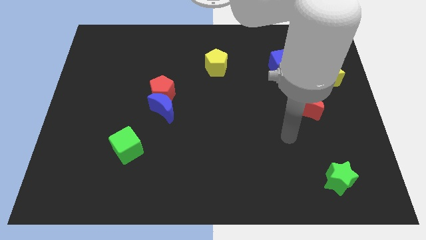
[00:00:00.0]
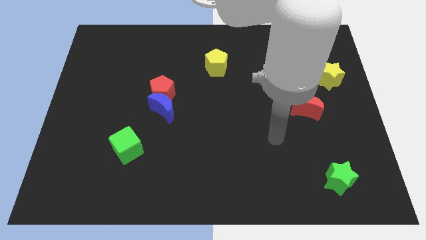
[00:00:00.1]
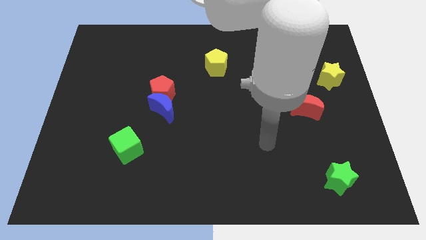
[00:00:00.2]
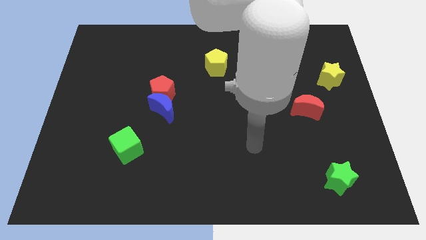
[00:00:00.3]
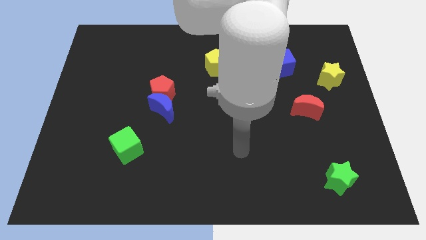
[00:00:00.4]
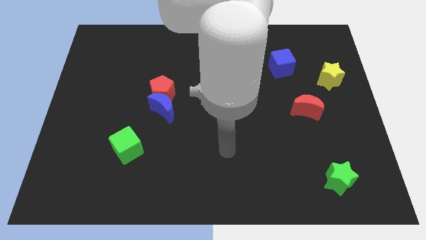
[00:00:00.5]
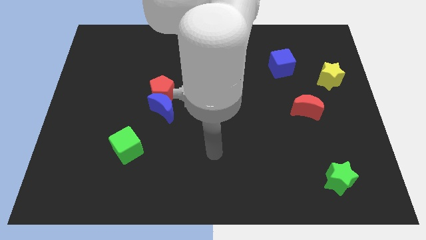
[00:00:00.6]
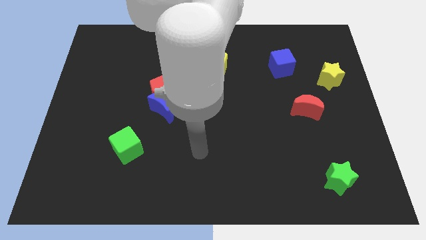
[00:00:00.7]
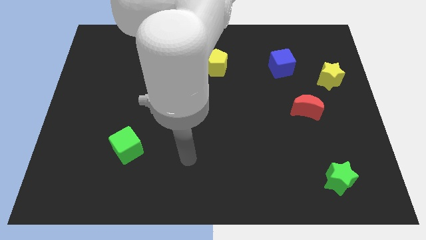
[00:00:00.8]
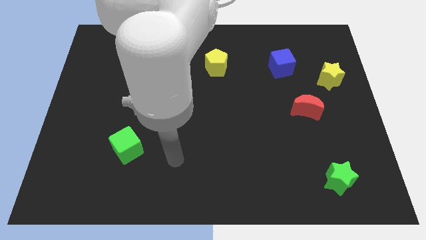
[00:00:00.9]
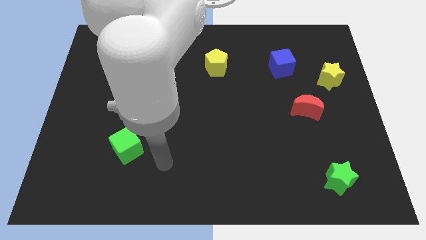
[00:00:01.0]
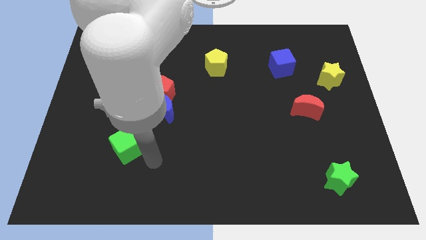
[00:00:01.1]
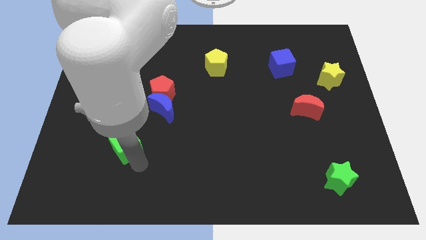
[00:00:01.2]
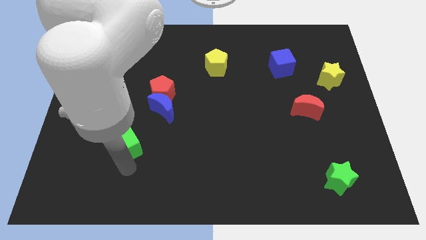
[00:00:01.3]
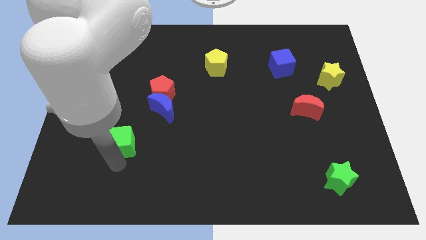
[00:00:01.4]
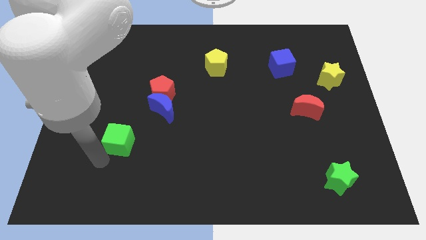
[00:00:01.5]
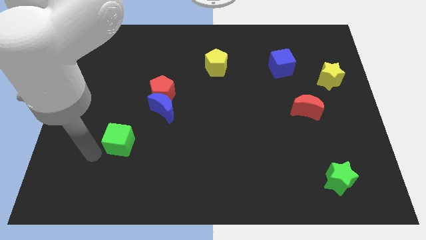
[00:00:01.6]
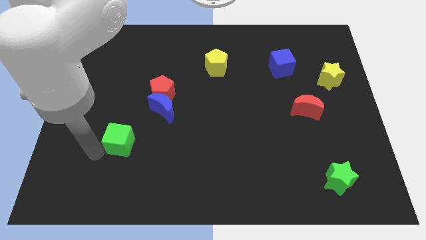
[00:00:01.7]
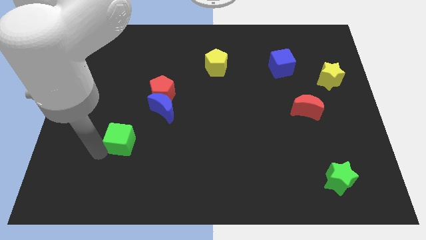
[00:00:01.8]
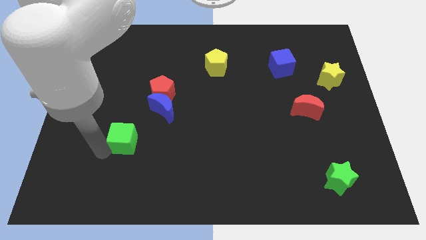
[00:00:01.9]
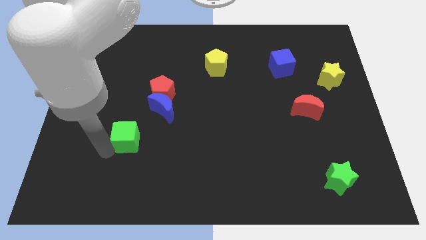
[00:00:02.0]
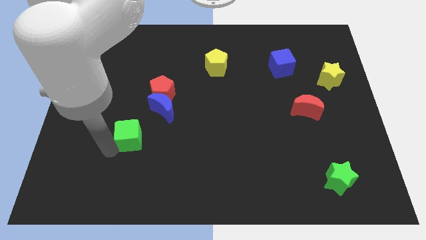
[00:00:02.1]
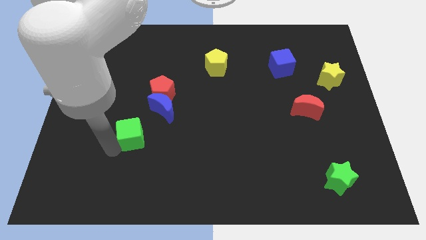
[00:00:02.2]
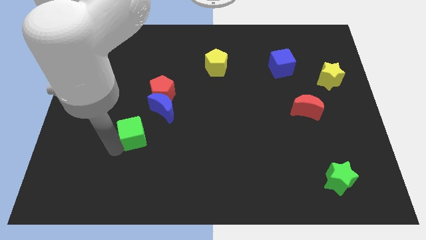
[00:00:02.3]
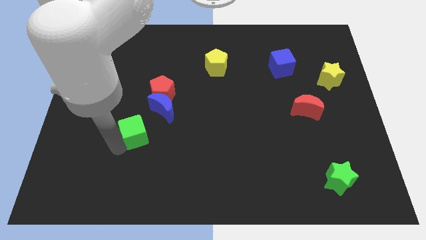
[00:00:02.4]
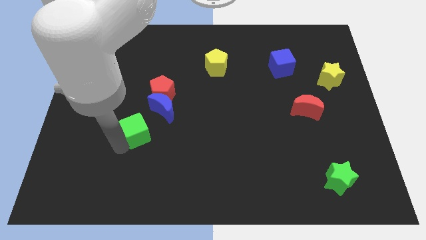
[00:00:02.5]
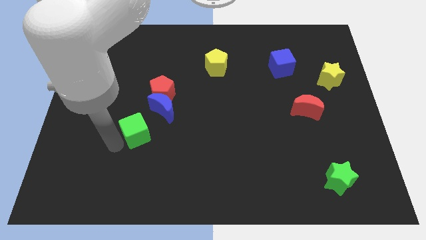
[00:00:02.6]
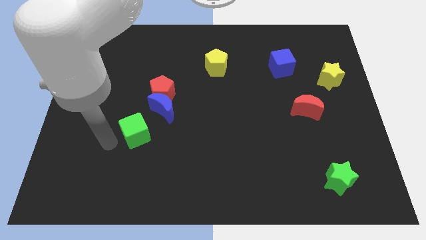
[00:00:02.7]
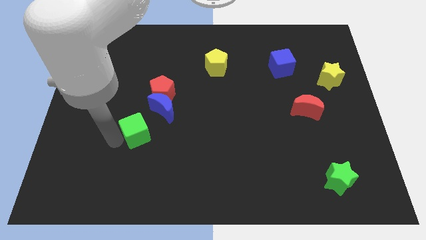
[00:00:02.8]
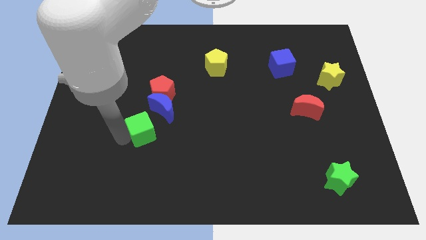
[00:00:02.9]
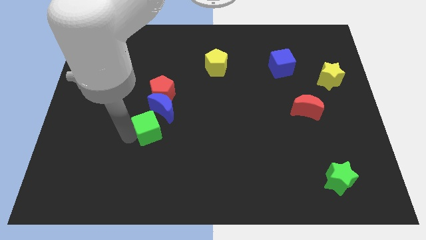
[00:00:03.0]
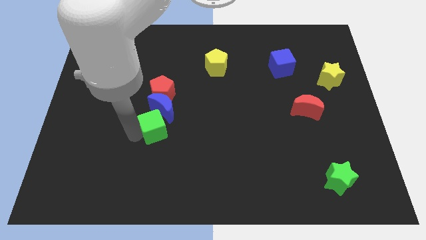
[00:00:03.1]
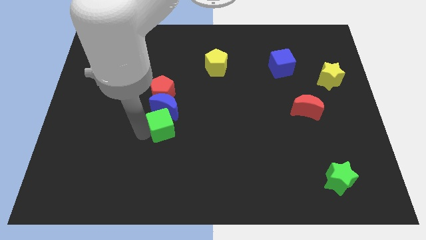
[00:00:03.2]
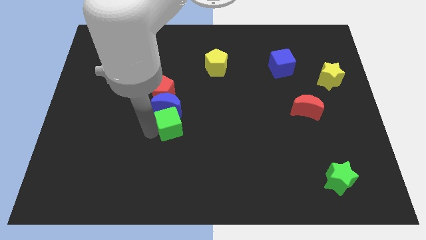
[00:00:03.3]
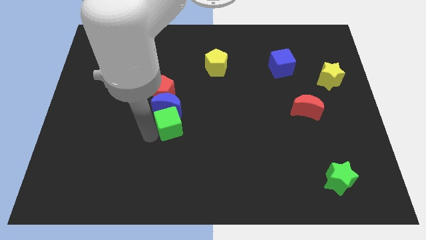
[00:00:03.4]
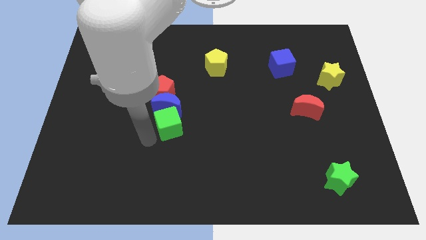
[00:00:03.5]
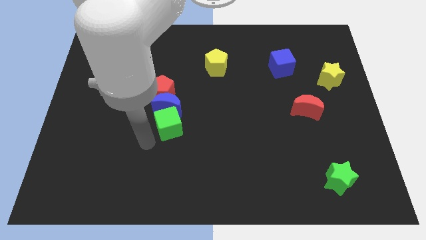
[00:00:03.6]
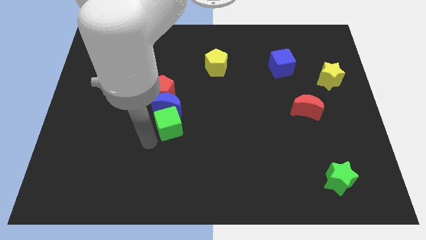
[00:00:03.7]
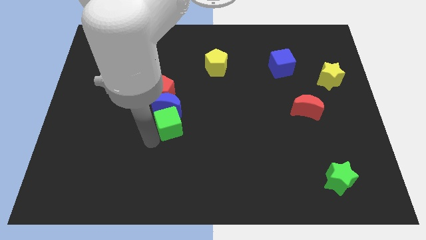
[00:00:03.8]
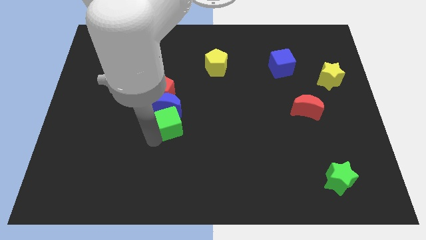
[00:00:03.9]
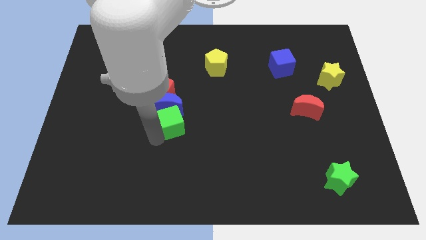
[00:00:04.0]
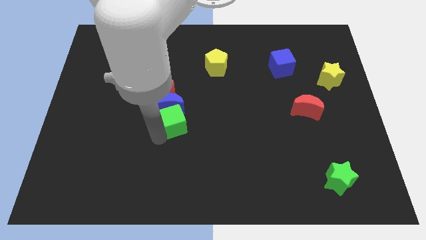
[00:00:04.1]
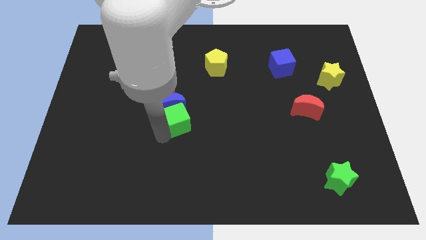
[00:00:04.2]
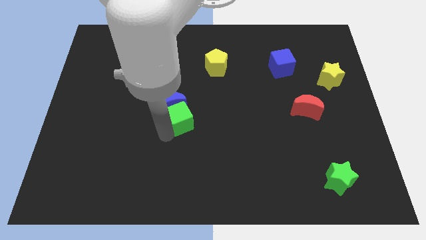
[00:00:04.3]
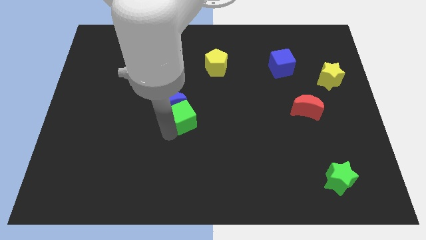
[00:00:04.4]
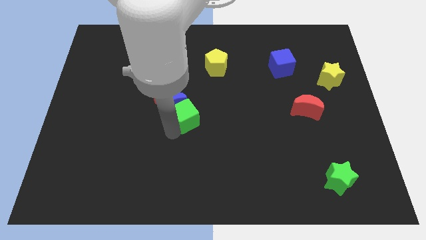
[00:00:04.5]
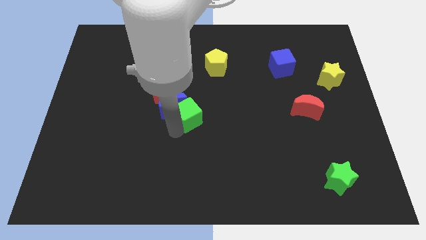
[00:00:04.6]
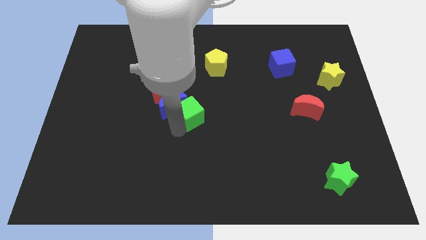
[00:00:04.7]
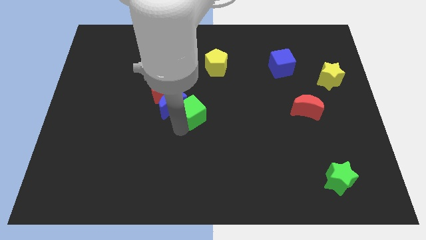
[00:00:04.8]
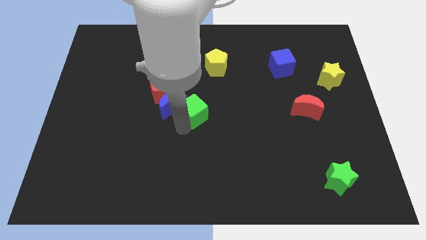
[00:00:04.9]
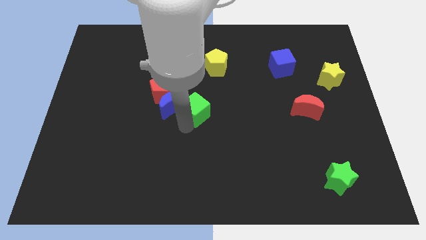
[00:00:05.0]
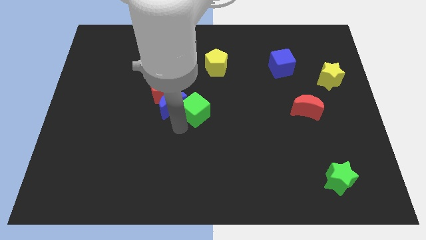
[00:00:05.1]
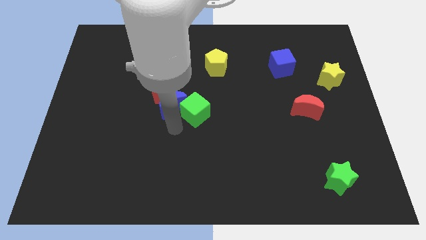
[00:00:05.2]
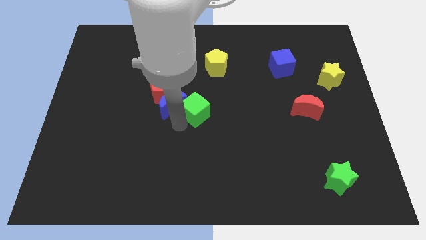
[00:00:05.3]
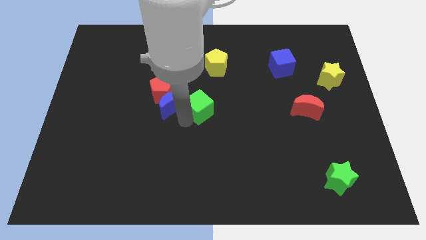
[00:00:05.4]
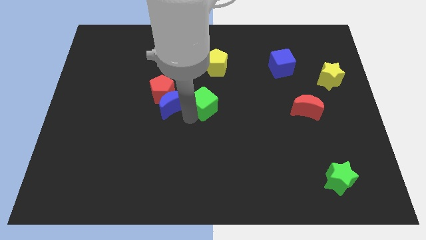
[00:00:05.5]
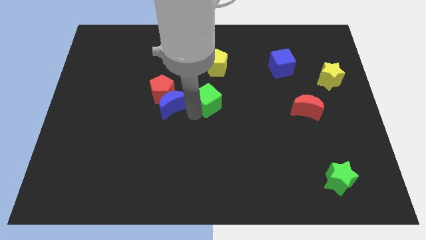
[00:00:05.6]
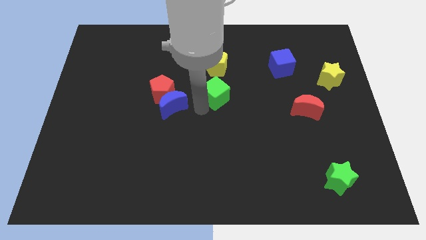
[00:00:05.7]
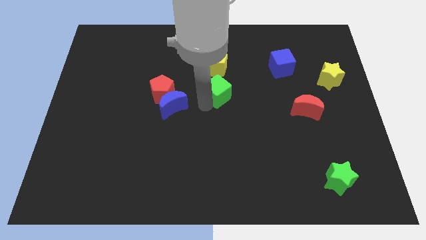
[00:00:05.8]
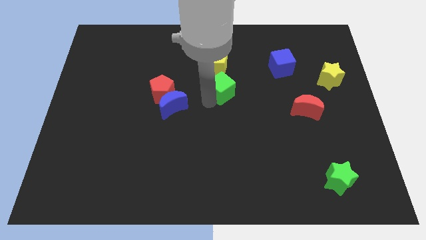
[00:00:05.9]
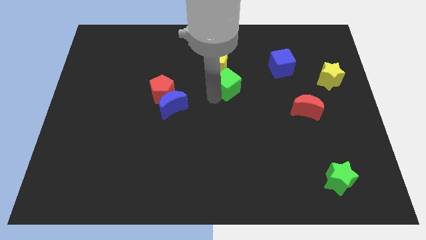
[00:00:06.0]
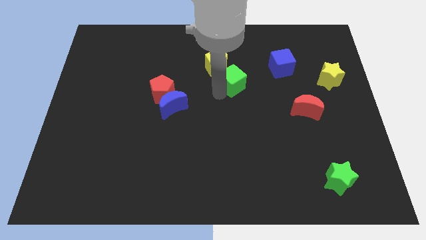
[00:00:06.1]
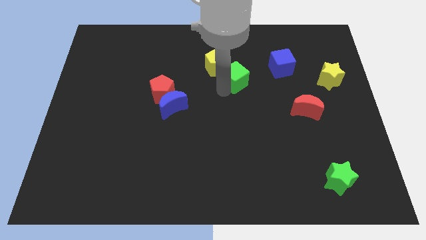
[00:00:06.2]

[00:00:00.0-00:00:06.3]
put the green cube to the right side of the yellow pentagon

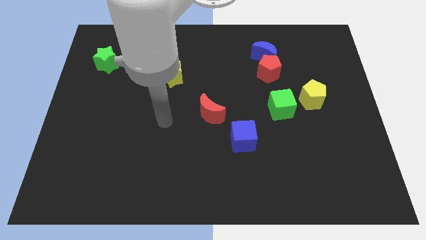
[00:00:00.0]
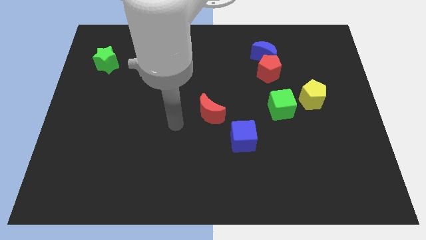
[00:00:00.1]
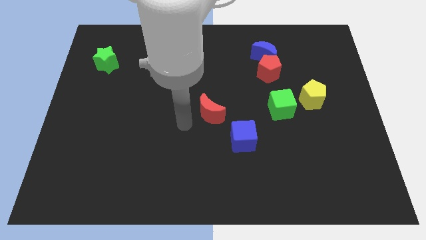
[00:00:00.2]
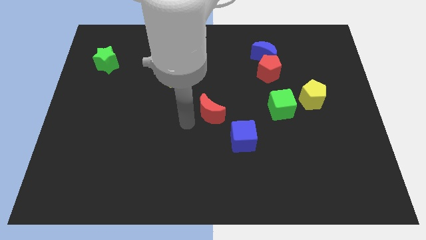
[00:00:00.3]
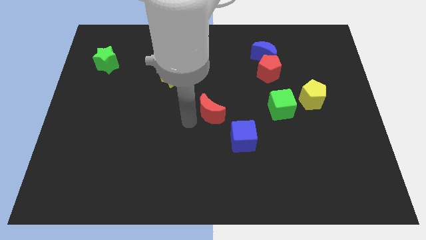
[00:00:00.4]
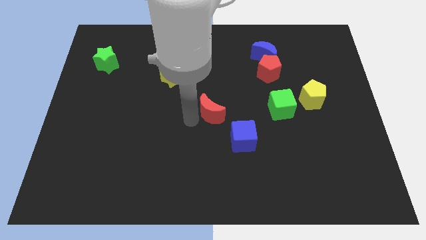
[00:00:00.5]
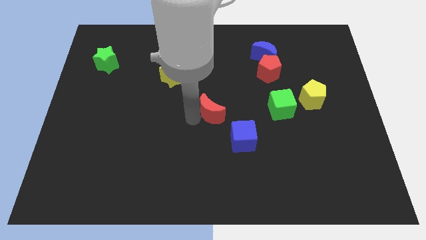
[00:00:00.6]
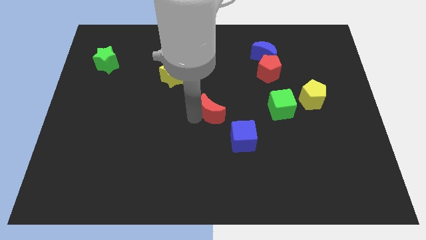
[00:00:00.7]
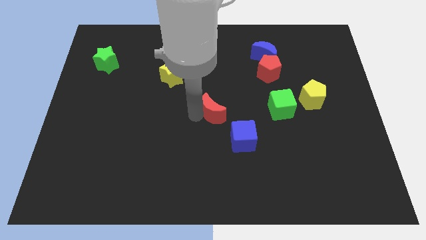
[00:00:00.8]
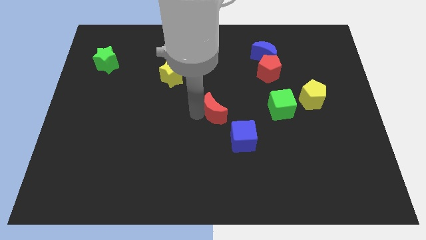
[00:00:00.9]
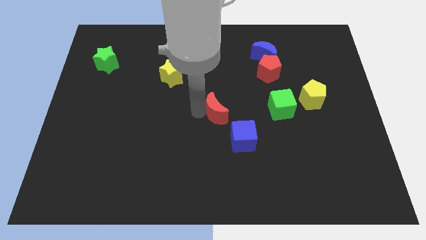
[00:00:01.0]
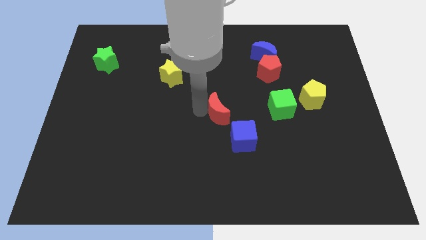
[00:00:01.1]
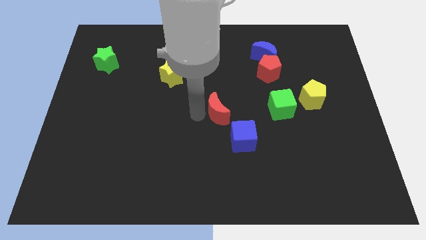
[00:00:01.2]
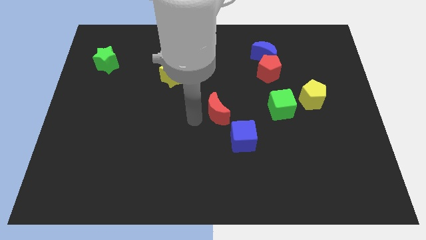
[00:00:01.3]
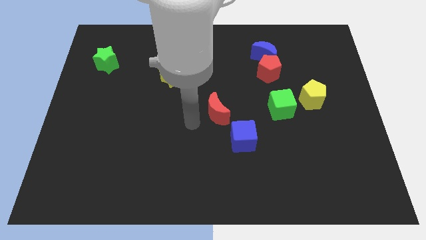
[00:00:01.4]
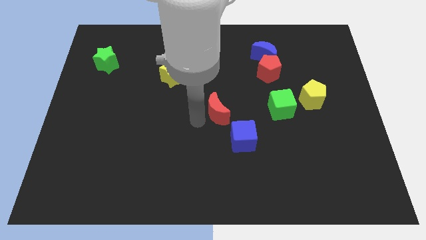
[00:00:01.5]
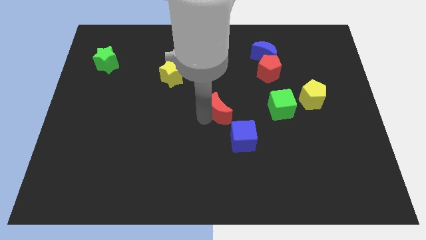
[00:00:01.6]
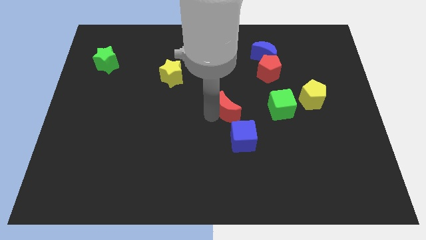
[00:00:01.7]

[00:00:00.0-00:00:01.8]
push the red moon above the blue cube
